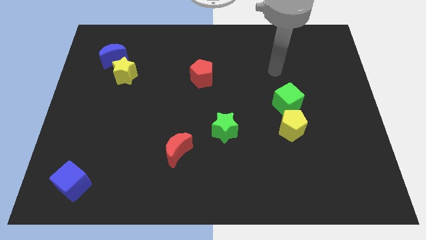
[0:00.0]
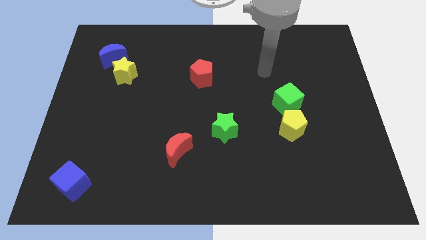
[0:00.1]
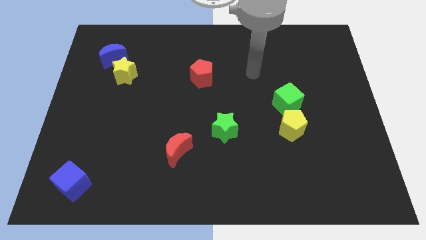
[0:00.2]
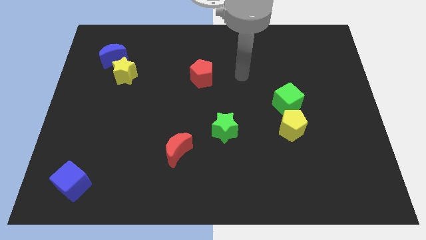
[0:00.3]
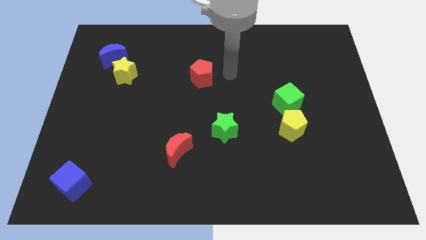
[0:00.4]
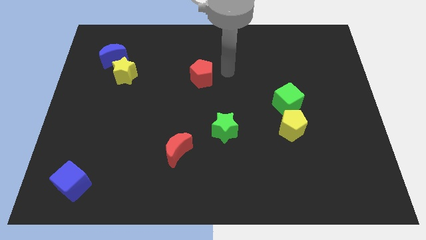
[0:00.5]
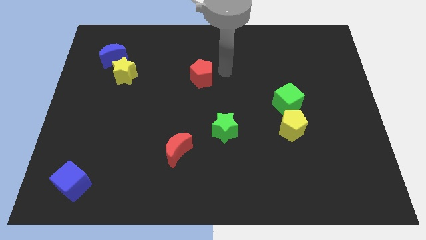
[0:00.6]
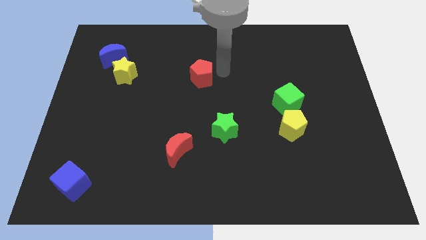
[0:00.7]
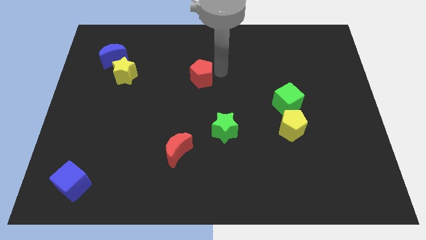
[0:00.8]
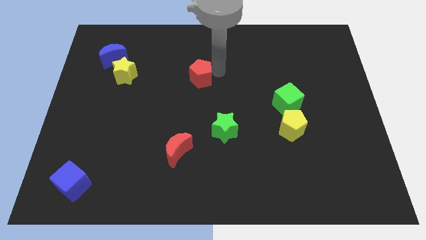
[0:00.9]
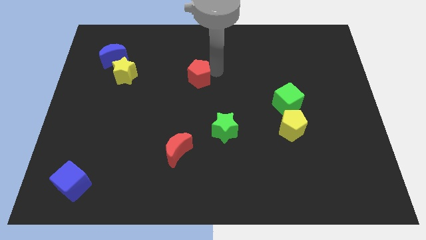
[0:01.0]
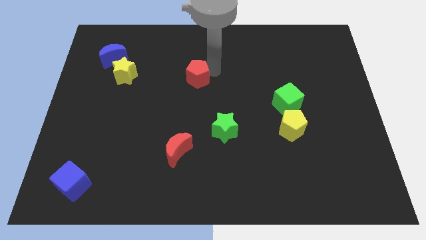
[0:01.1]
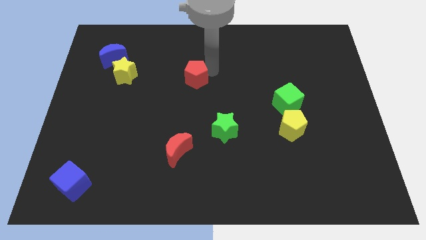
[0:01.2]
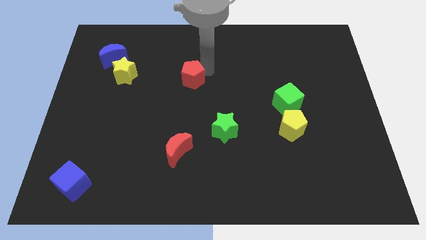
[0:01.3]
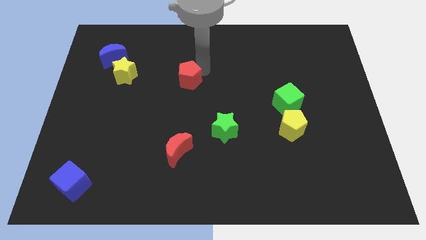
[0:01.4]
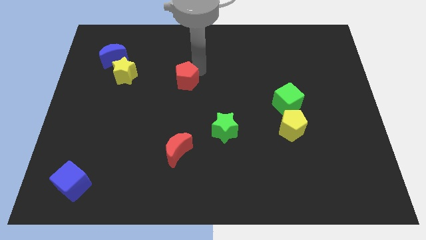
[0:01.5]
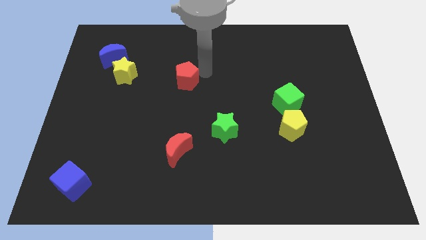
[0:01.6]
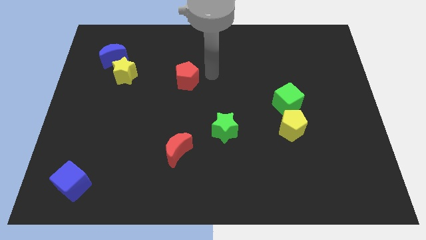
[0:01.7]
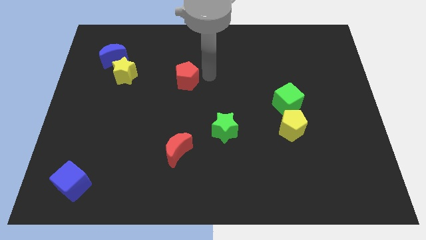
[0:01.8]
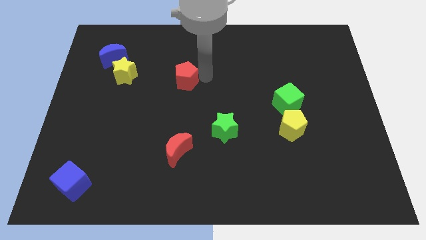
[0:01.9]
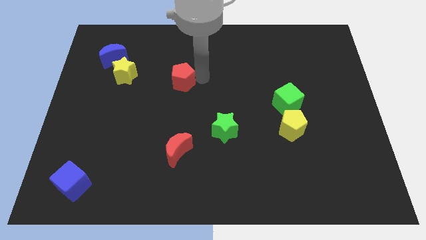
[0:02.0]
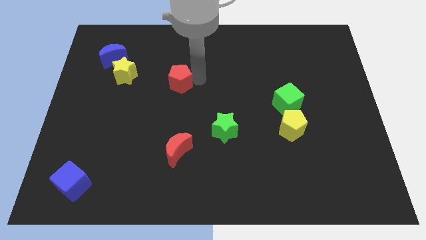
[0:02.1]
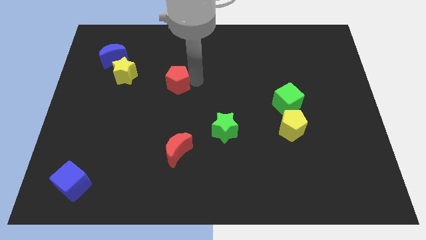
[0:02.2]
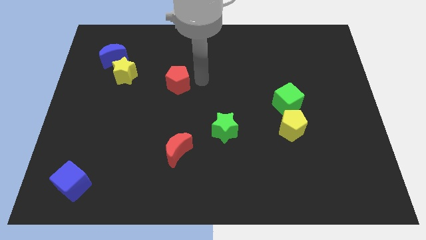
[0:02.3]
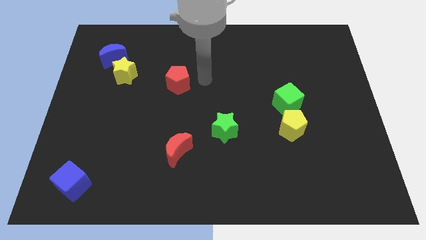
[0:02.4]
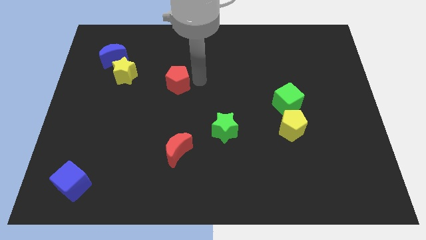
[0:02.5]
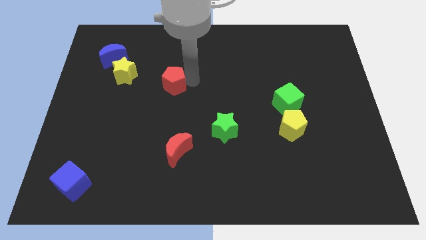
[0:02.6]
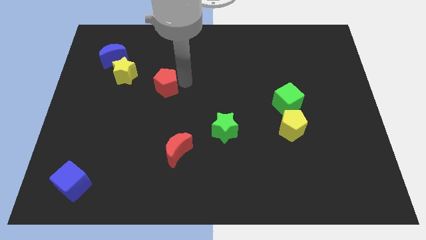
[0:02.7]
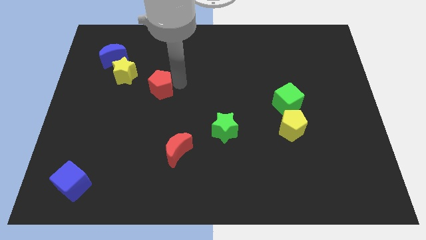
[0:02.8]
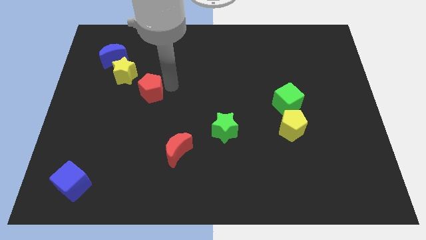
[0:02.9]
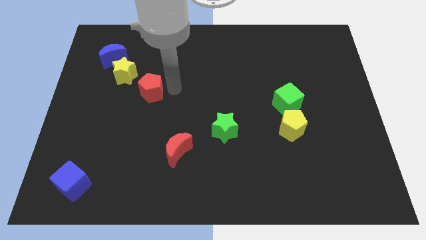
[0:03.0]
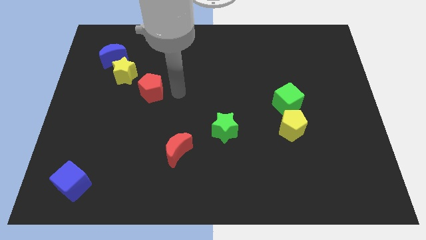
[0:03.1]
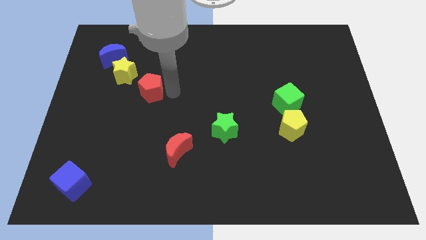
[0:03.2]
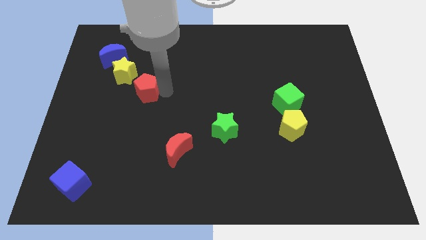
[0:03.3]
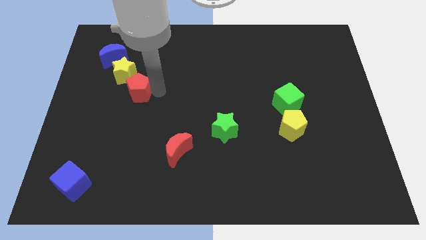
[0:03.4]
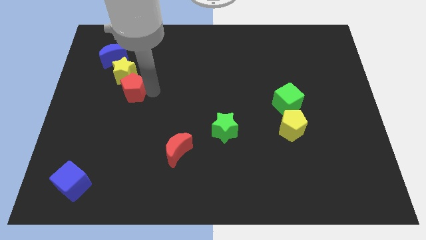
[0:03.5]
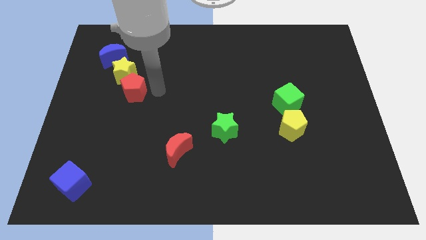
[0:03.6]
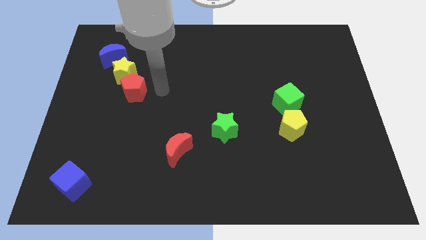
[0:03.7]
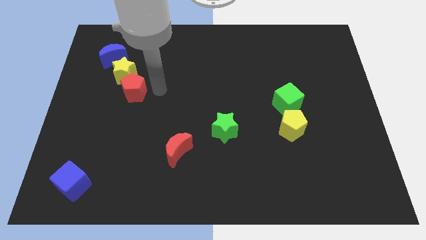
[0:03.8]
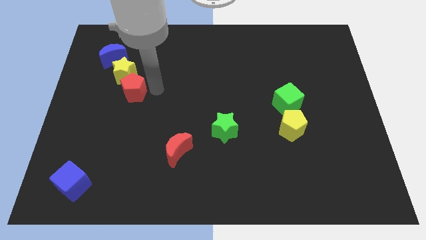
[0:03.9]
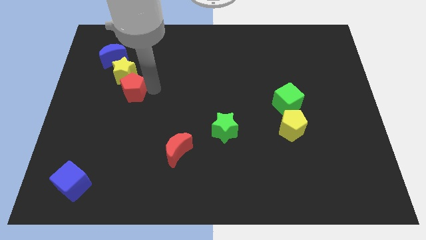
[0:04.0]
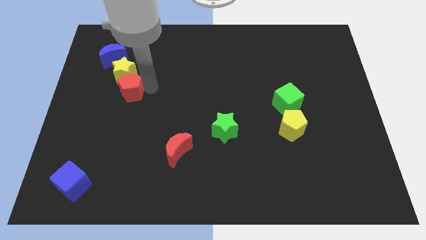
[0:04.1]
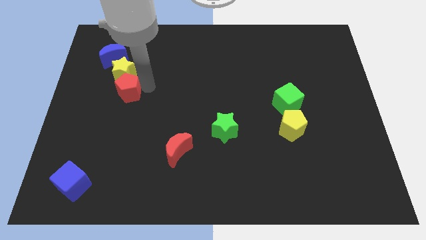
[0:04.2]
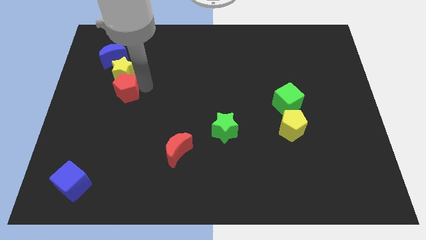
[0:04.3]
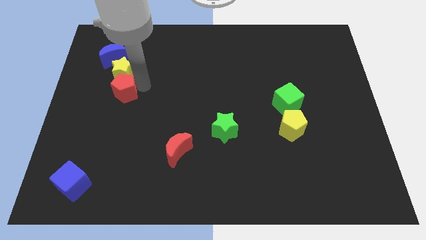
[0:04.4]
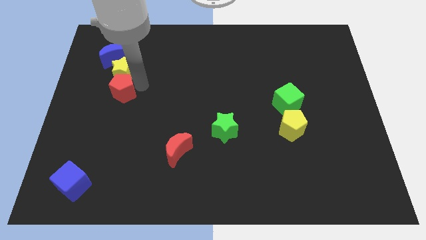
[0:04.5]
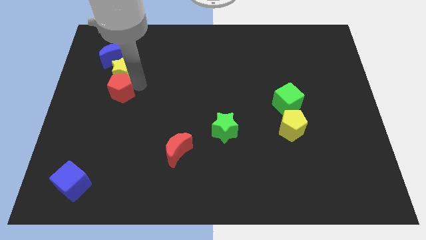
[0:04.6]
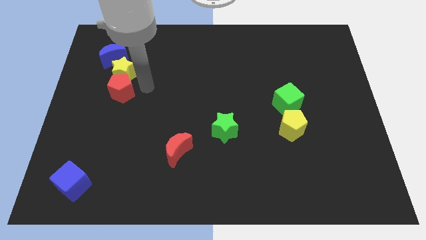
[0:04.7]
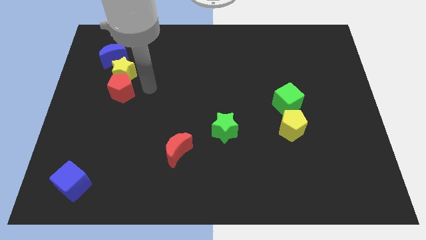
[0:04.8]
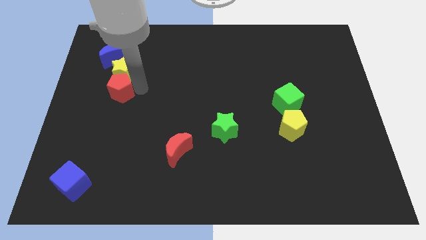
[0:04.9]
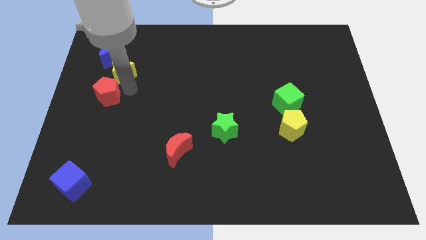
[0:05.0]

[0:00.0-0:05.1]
put the red pentagon to the left side of the board
